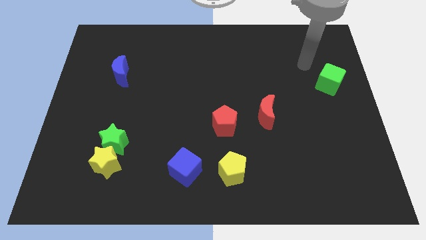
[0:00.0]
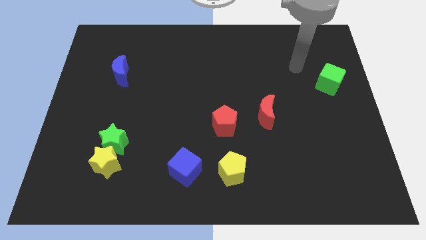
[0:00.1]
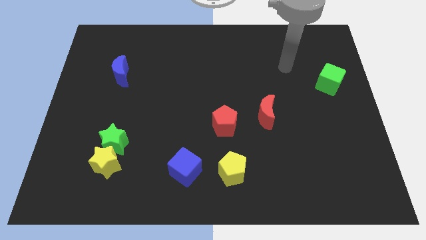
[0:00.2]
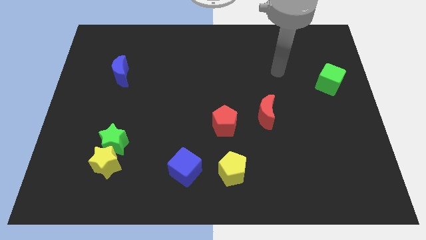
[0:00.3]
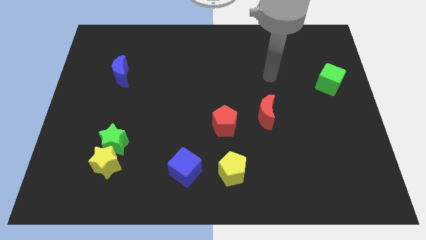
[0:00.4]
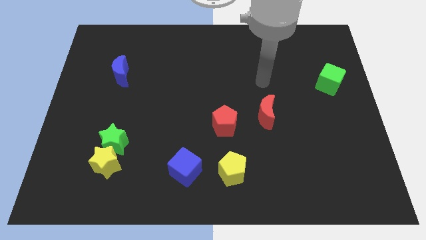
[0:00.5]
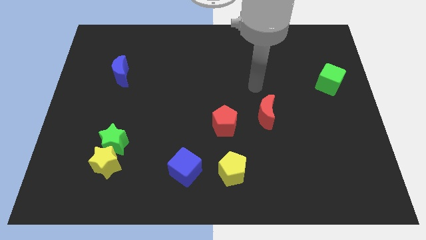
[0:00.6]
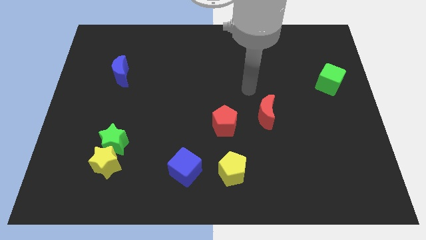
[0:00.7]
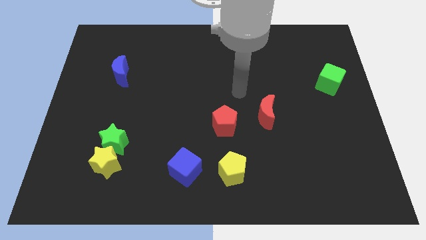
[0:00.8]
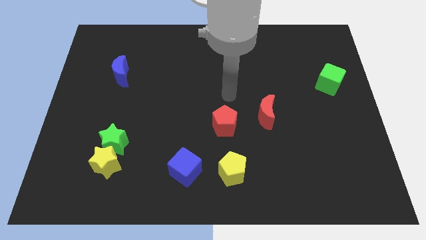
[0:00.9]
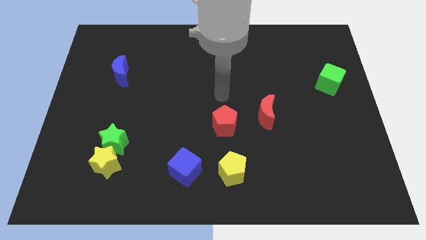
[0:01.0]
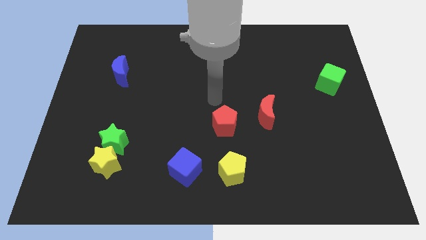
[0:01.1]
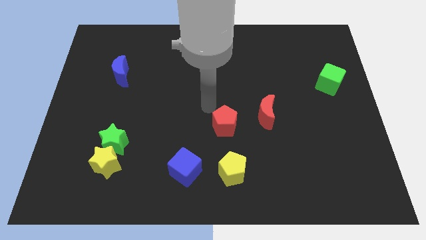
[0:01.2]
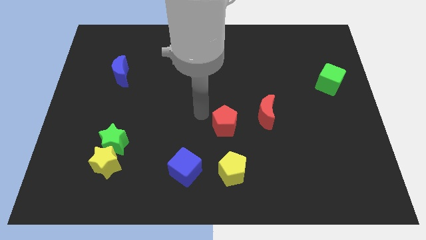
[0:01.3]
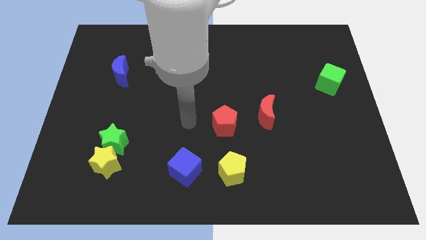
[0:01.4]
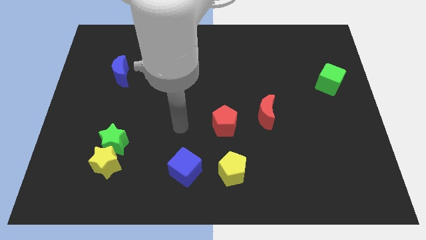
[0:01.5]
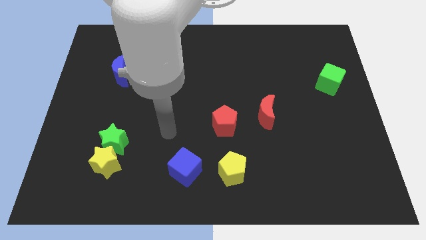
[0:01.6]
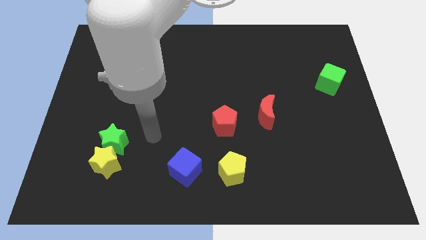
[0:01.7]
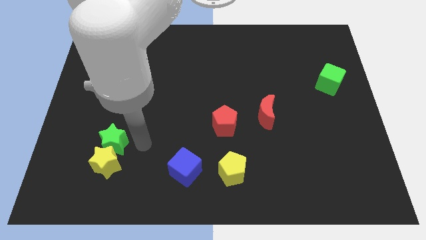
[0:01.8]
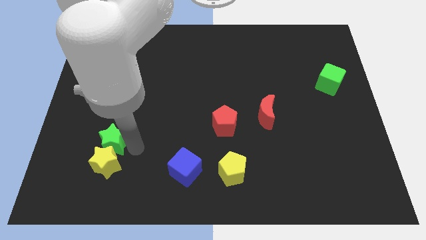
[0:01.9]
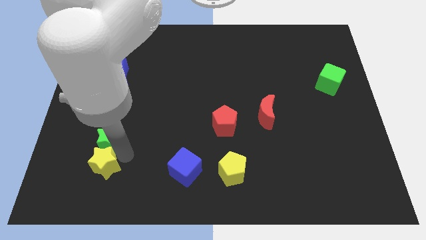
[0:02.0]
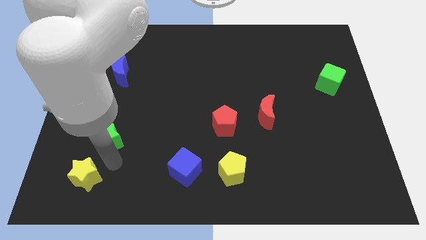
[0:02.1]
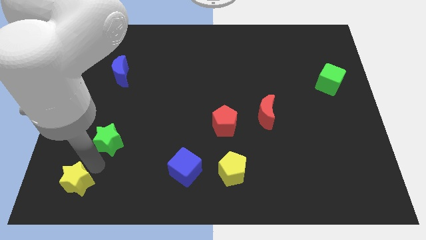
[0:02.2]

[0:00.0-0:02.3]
move the green star away from the yellow star

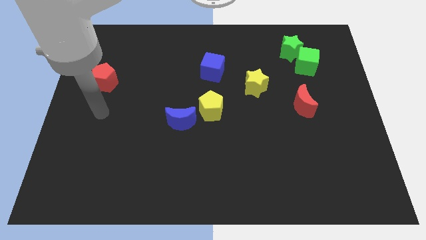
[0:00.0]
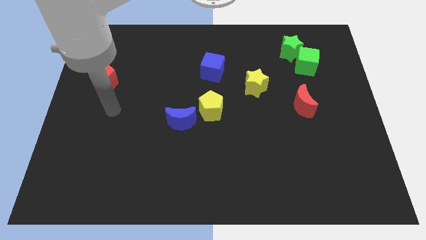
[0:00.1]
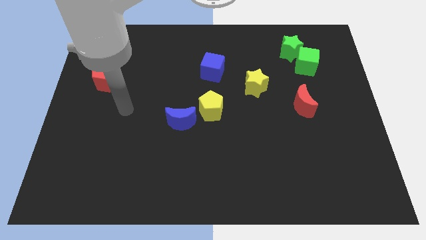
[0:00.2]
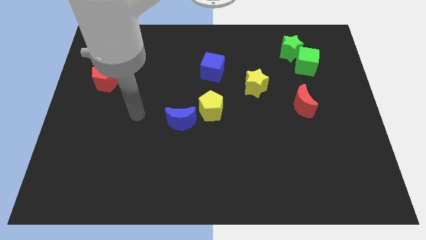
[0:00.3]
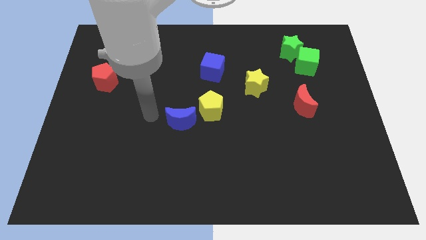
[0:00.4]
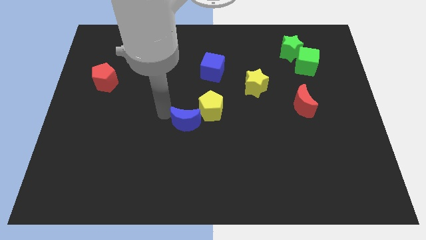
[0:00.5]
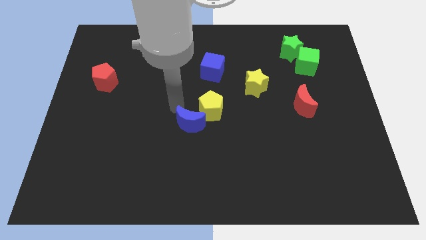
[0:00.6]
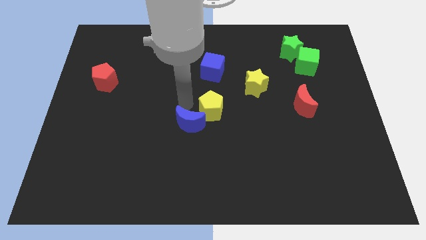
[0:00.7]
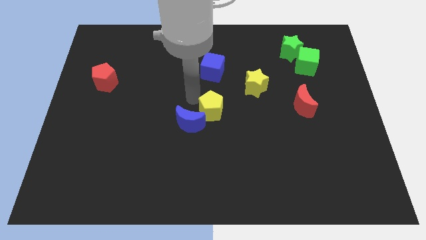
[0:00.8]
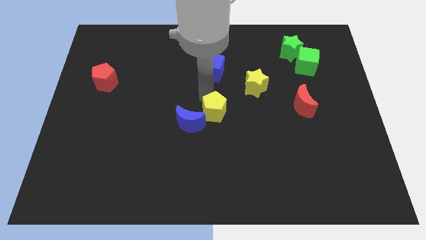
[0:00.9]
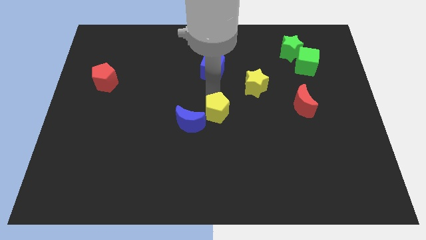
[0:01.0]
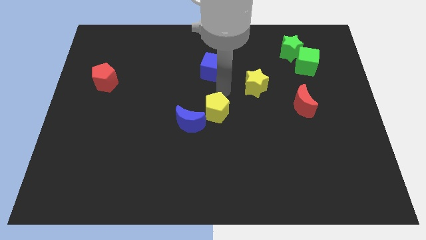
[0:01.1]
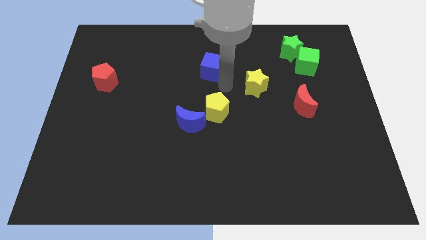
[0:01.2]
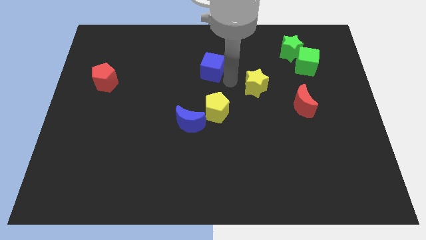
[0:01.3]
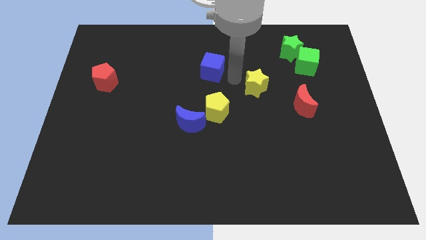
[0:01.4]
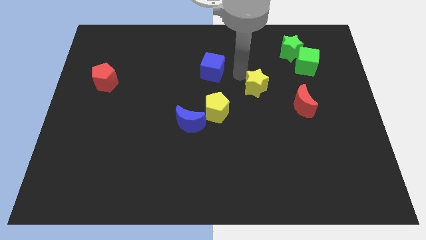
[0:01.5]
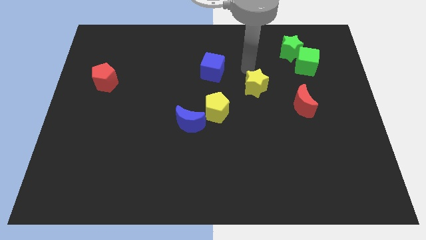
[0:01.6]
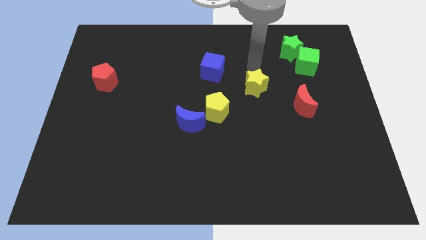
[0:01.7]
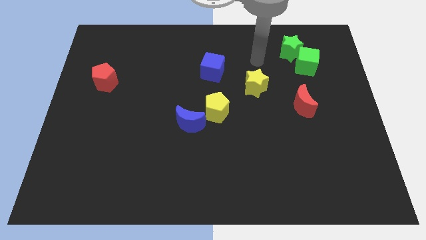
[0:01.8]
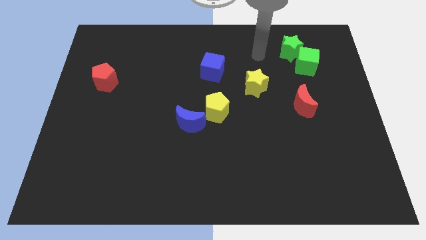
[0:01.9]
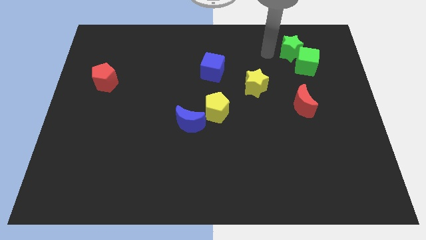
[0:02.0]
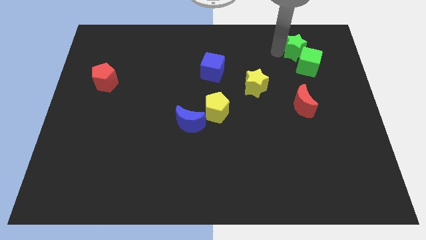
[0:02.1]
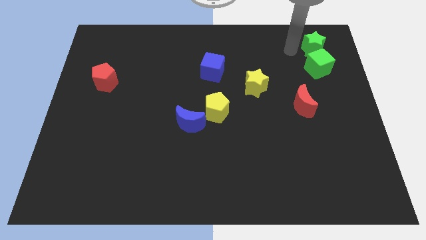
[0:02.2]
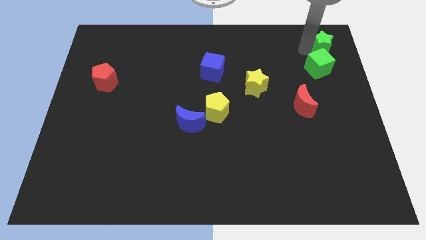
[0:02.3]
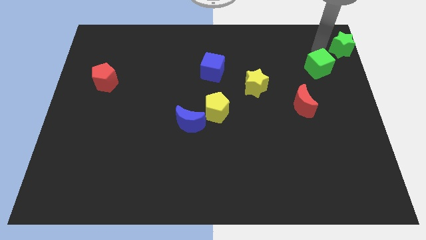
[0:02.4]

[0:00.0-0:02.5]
move the green cube away from the green star

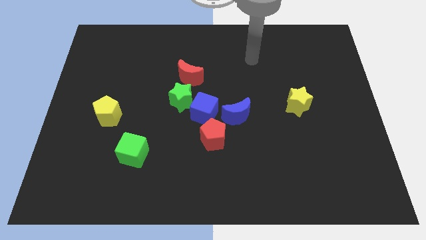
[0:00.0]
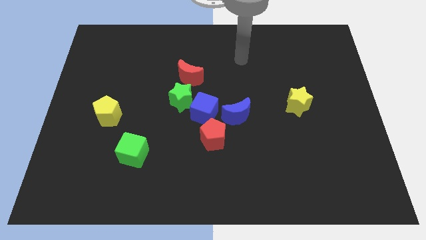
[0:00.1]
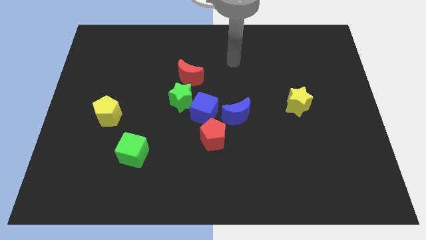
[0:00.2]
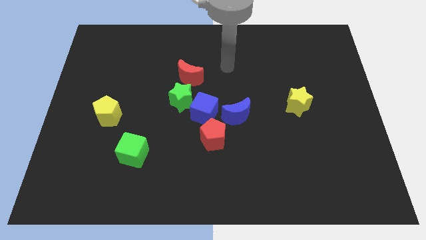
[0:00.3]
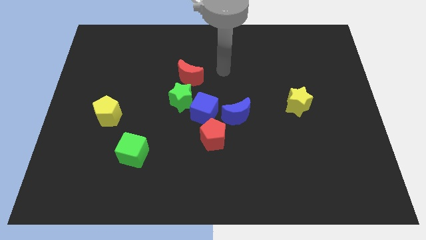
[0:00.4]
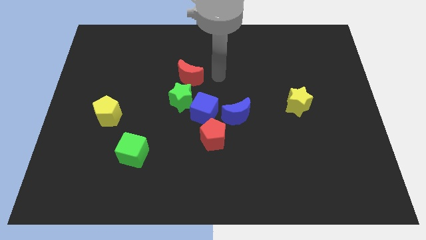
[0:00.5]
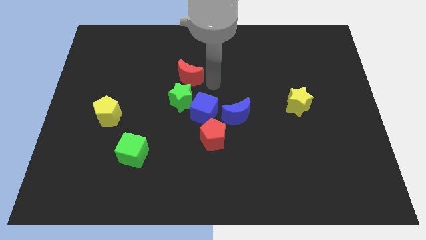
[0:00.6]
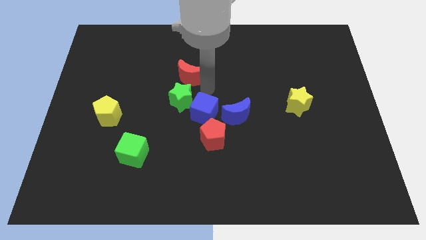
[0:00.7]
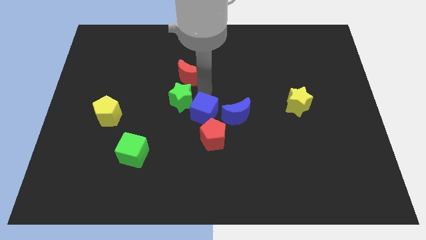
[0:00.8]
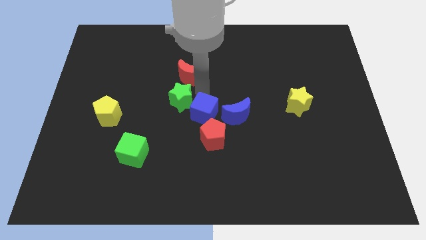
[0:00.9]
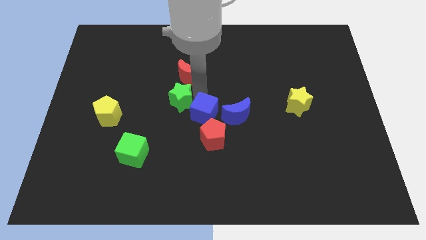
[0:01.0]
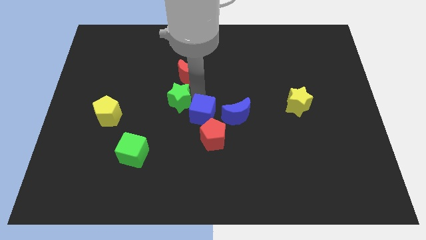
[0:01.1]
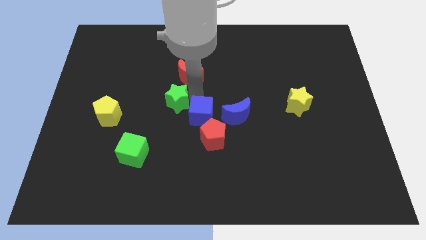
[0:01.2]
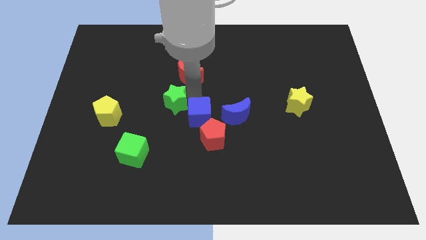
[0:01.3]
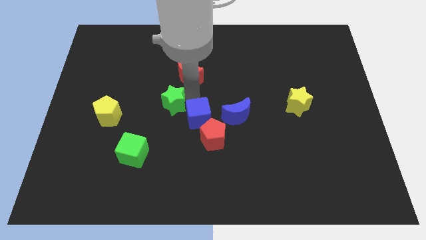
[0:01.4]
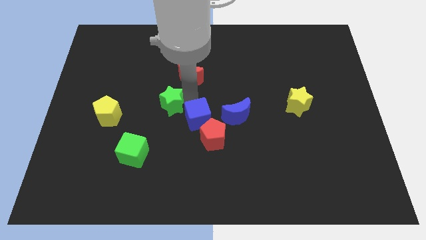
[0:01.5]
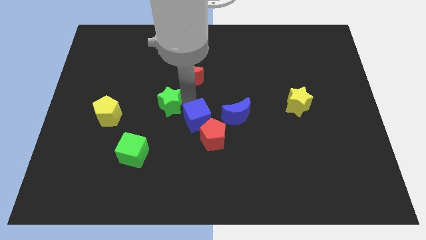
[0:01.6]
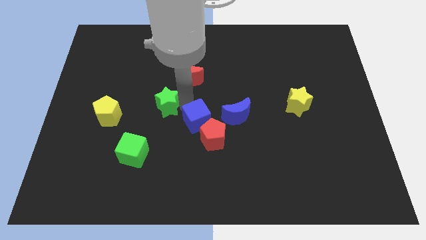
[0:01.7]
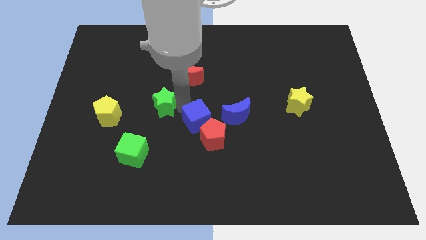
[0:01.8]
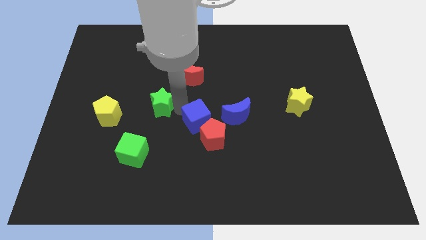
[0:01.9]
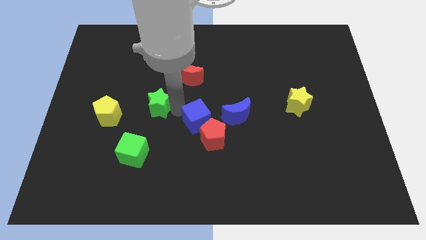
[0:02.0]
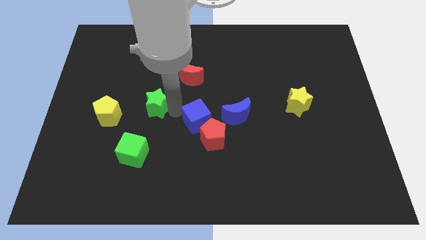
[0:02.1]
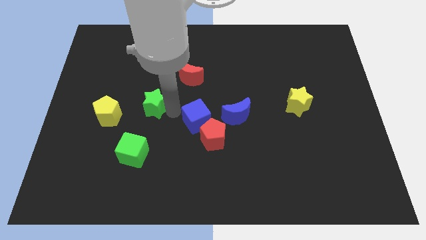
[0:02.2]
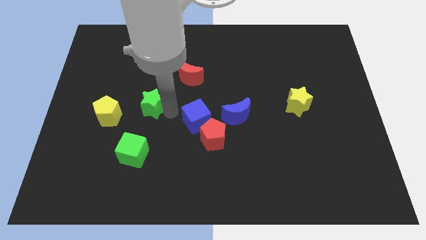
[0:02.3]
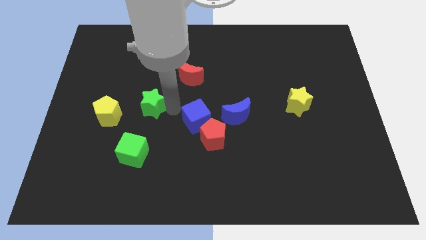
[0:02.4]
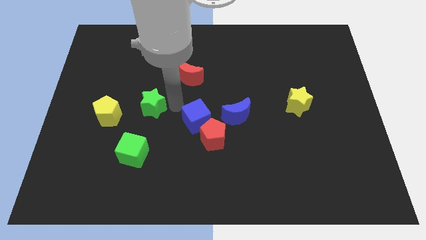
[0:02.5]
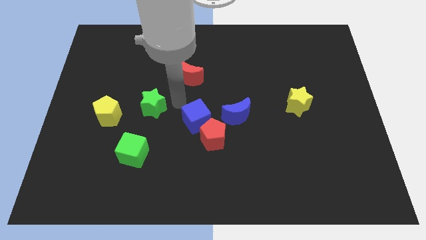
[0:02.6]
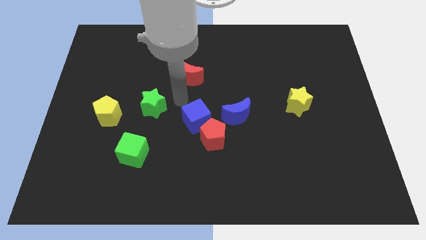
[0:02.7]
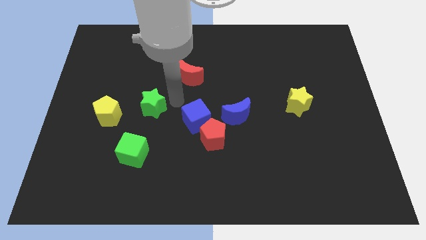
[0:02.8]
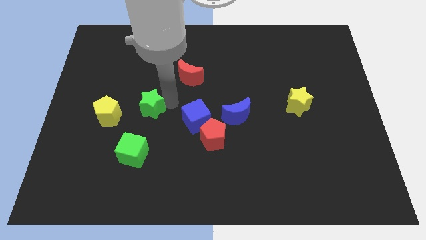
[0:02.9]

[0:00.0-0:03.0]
move the green star away from the blue cube and red moon

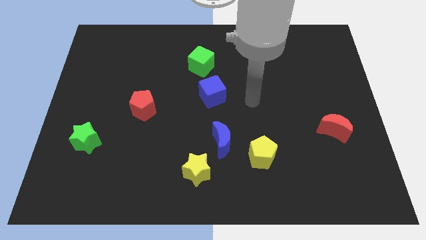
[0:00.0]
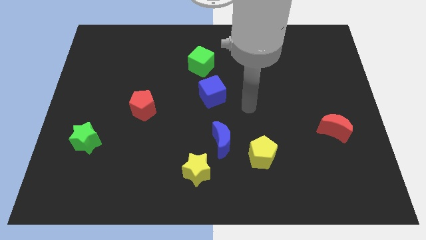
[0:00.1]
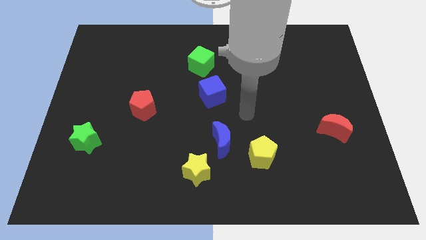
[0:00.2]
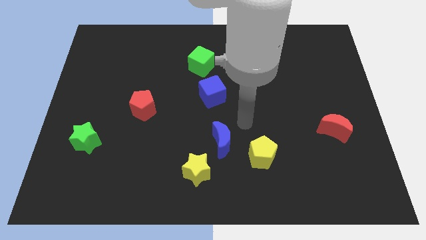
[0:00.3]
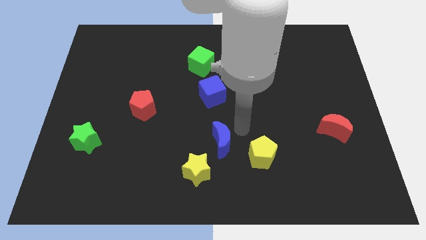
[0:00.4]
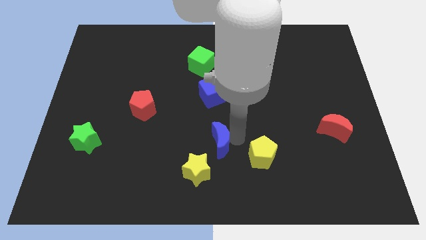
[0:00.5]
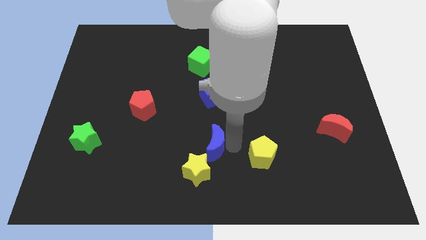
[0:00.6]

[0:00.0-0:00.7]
move the yellow pentagon away from the blue moon

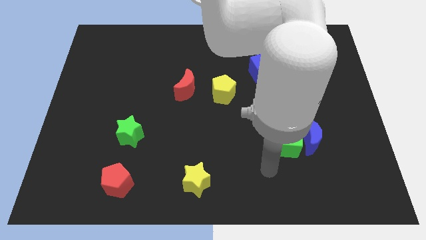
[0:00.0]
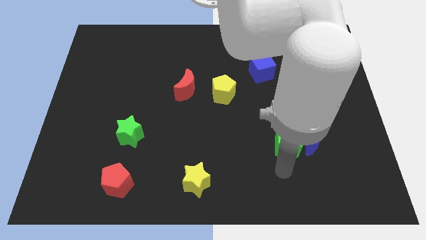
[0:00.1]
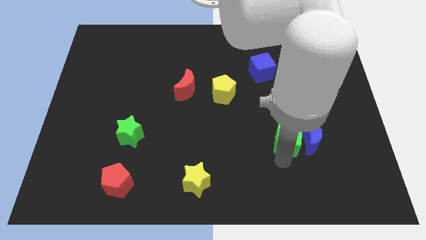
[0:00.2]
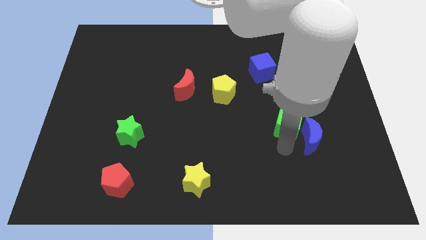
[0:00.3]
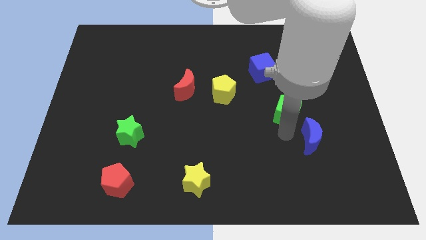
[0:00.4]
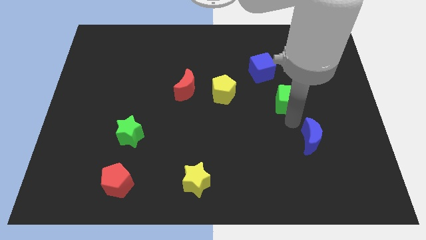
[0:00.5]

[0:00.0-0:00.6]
pull the blue moon apart from the green cube

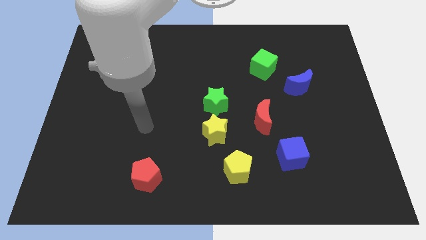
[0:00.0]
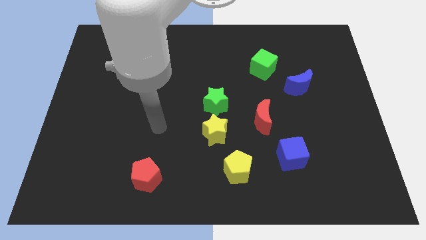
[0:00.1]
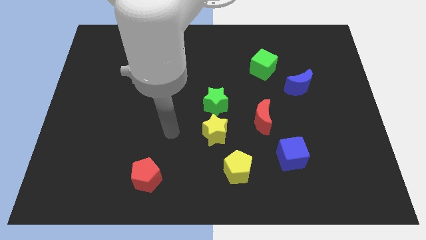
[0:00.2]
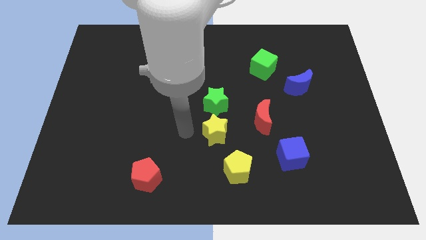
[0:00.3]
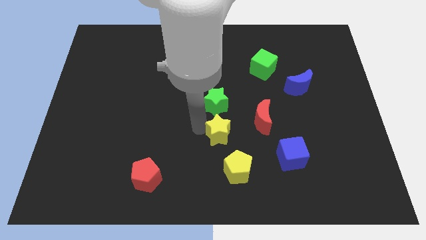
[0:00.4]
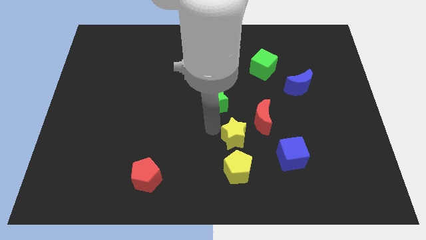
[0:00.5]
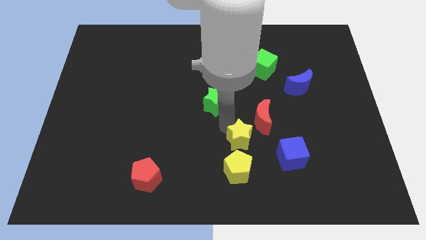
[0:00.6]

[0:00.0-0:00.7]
pull the green star apart from the yellow star